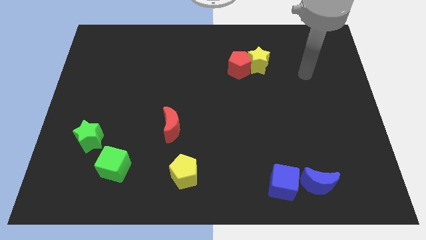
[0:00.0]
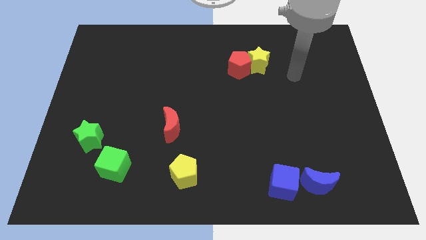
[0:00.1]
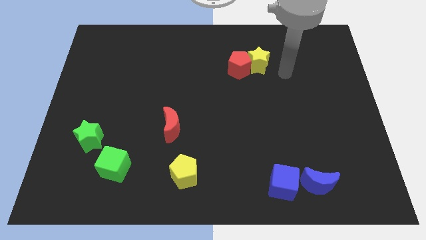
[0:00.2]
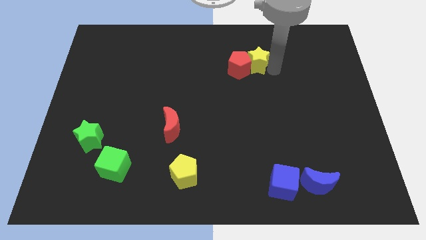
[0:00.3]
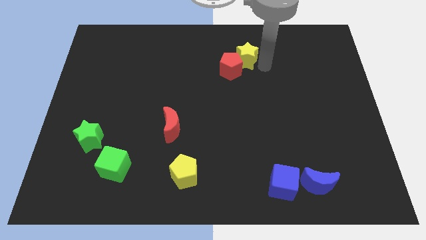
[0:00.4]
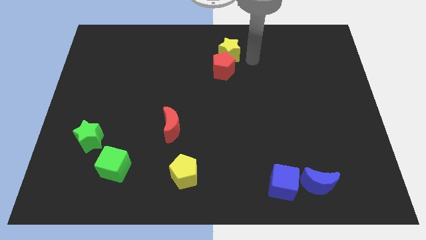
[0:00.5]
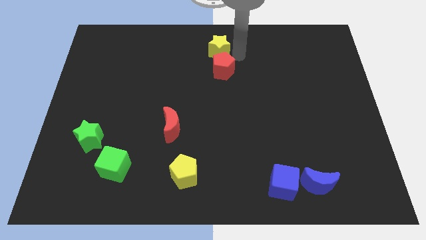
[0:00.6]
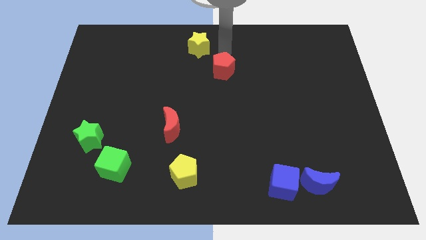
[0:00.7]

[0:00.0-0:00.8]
pull the red pentagon apart from the yellow star

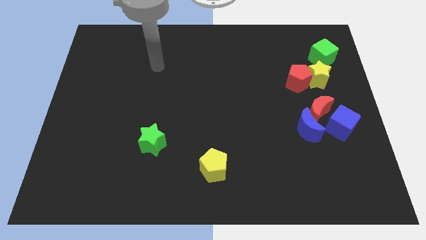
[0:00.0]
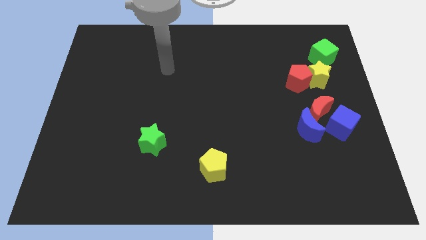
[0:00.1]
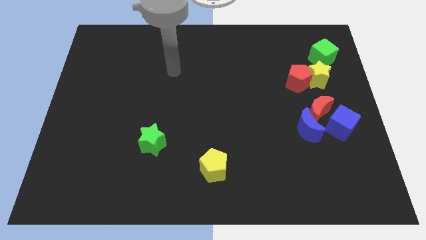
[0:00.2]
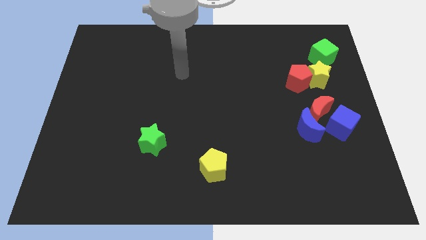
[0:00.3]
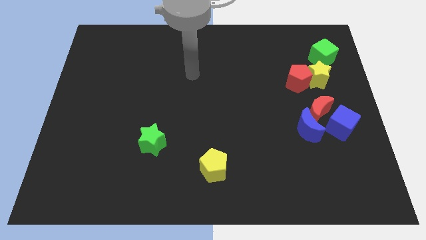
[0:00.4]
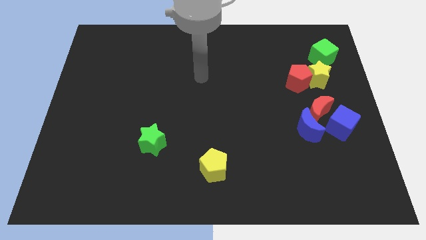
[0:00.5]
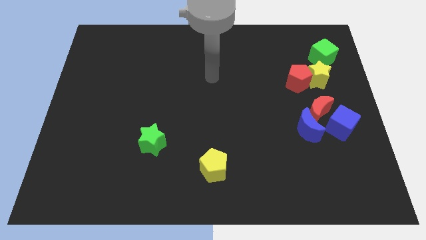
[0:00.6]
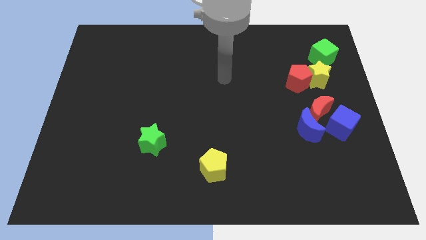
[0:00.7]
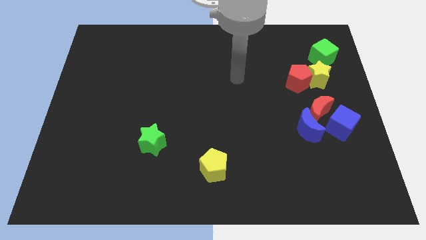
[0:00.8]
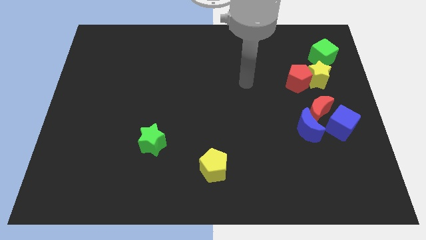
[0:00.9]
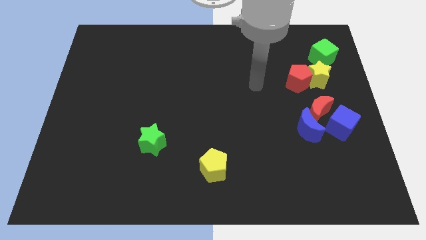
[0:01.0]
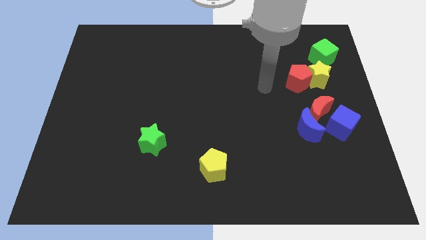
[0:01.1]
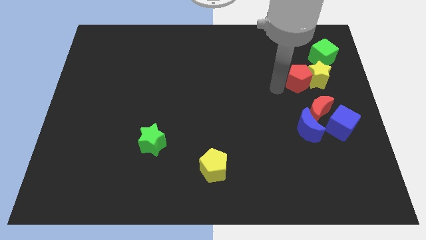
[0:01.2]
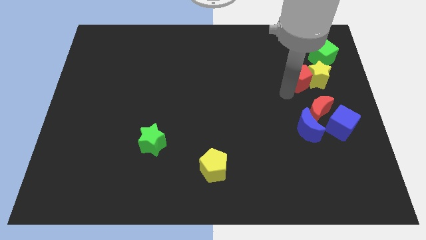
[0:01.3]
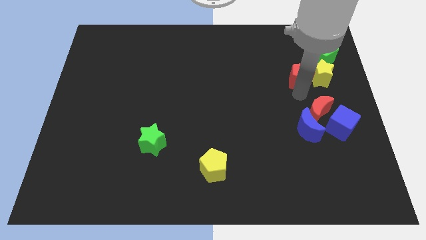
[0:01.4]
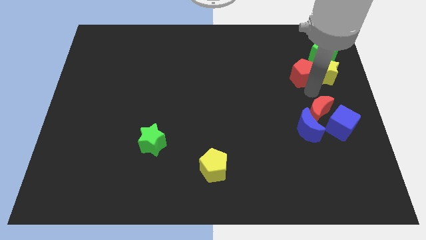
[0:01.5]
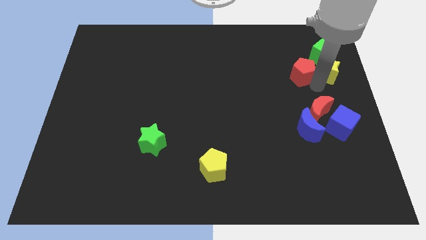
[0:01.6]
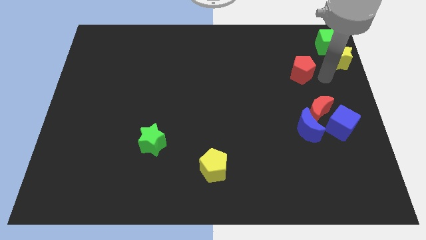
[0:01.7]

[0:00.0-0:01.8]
separate the red pentagon from the yellow star

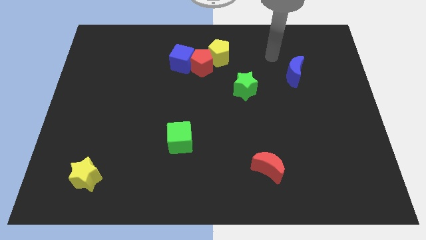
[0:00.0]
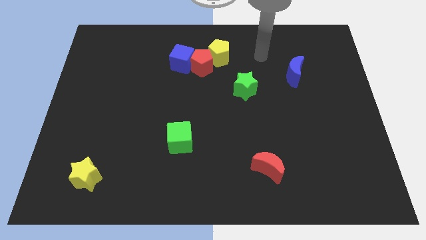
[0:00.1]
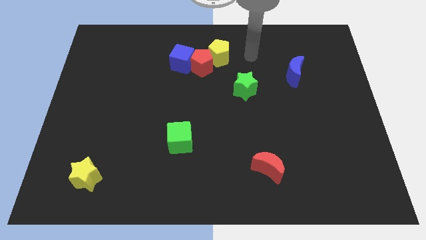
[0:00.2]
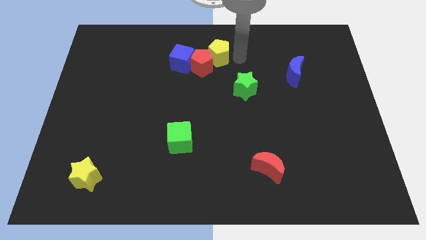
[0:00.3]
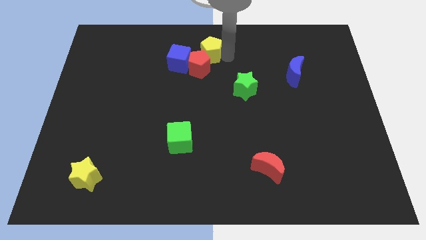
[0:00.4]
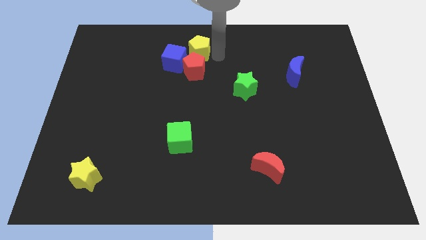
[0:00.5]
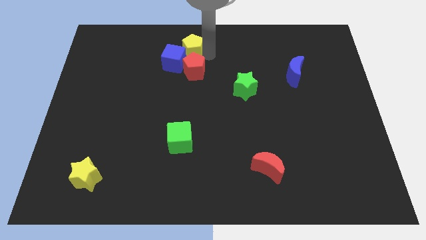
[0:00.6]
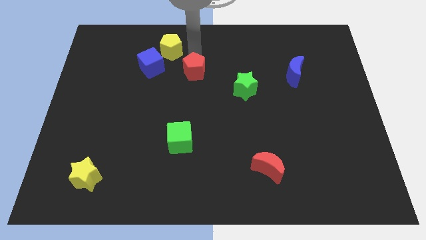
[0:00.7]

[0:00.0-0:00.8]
pull the red pentagon apart from the blue cube and yellow pentagon

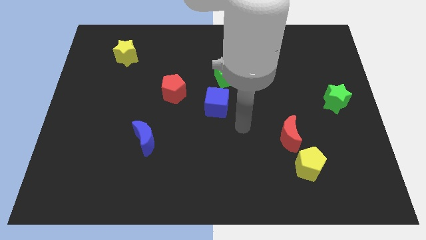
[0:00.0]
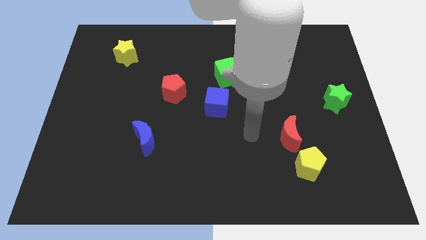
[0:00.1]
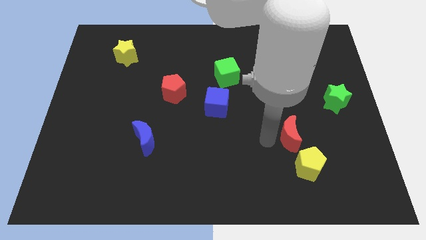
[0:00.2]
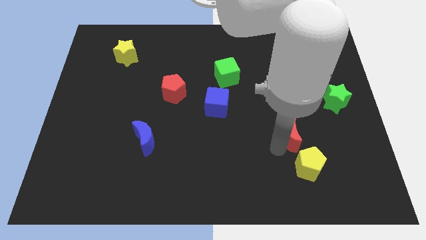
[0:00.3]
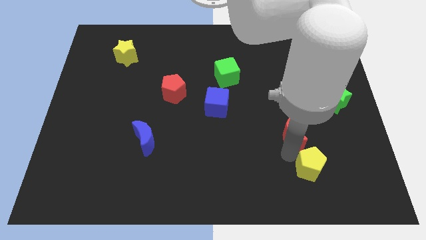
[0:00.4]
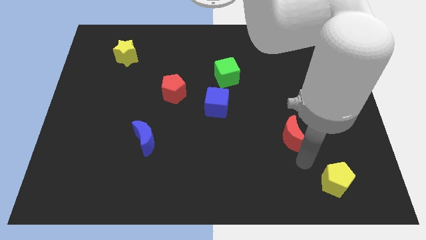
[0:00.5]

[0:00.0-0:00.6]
separate the red moon from the yellow pentagon

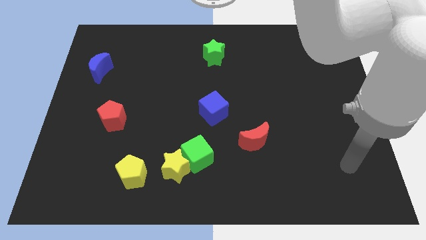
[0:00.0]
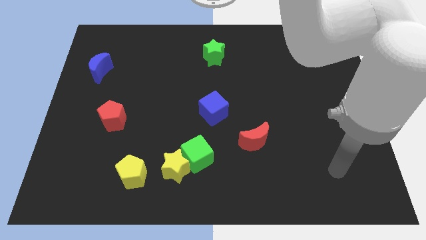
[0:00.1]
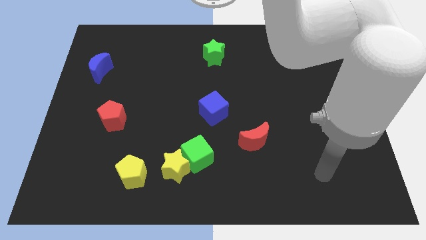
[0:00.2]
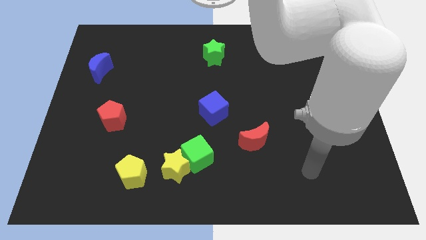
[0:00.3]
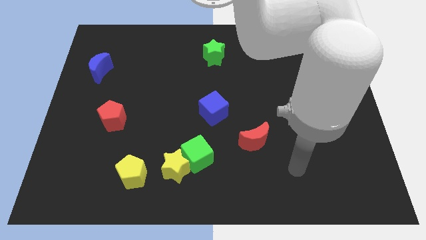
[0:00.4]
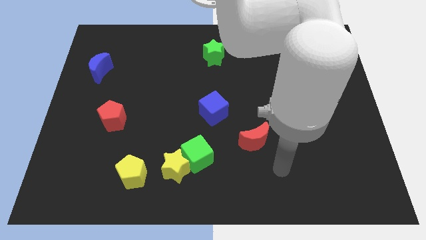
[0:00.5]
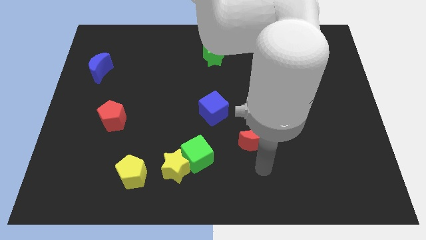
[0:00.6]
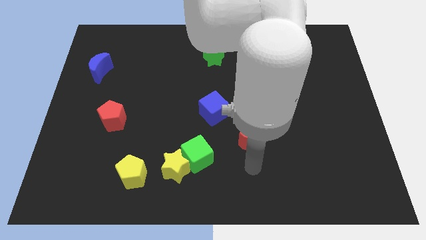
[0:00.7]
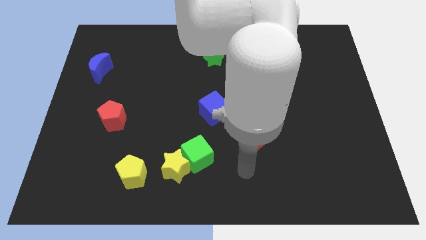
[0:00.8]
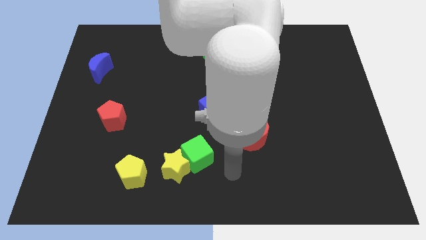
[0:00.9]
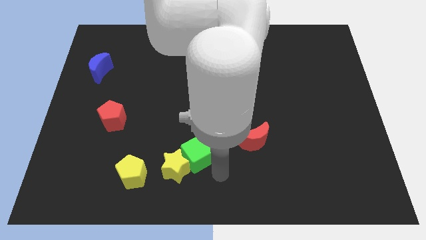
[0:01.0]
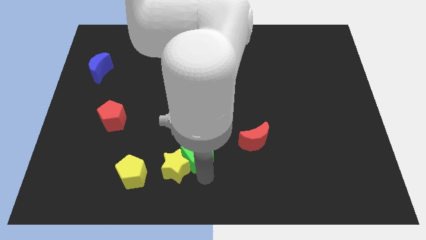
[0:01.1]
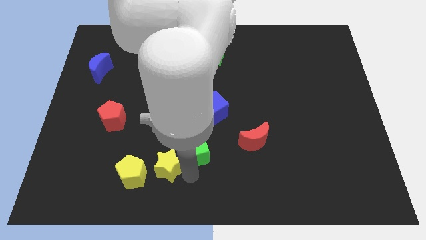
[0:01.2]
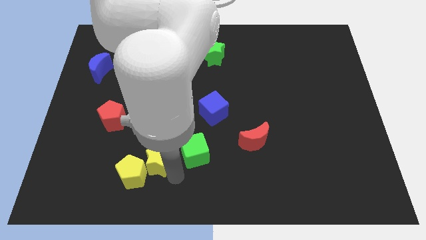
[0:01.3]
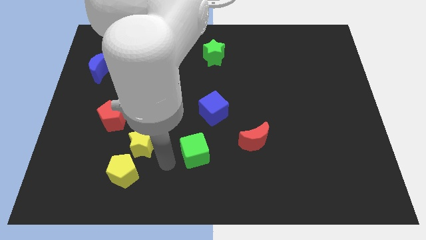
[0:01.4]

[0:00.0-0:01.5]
move the green cube away from the yellow star

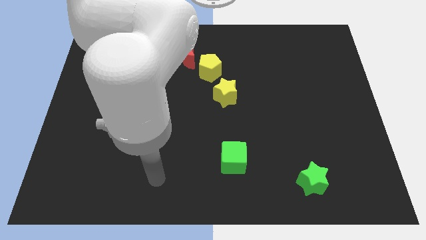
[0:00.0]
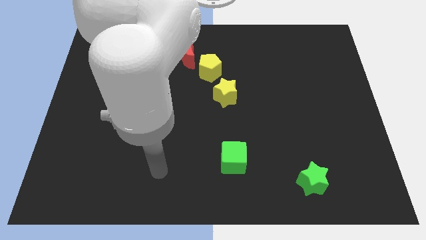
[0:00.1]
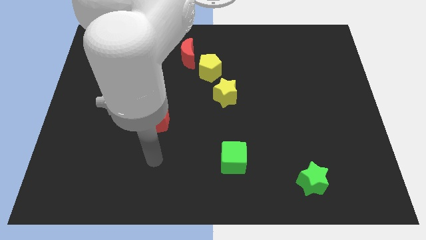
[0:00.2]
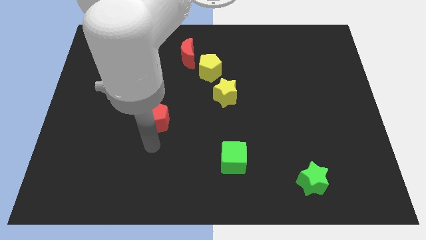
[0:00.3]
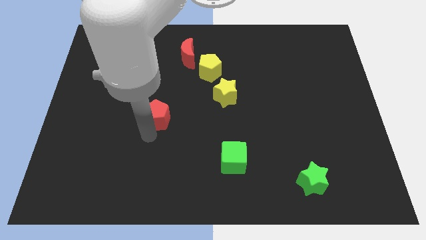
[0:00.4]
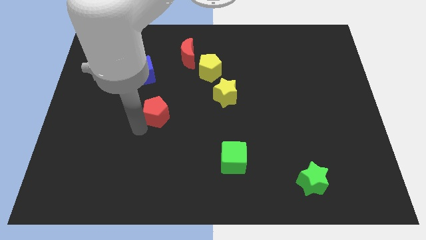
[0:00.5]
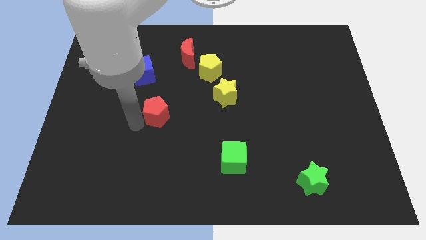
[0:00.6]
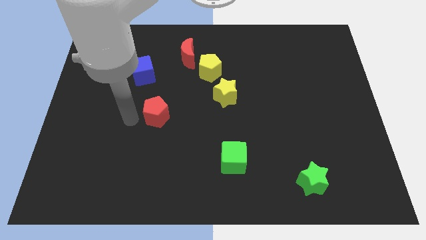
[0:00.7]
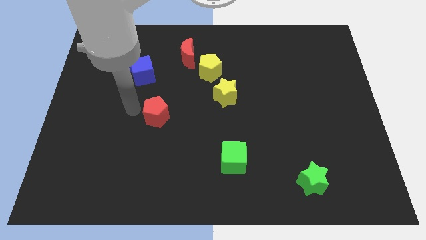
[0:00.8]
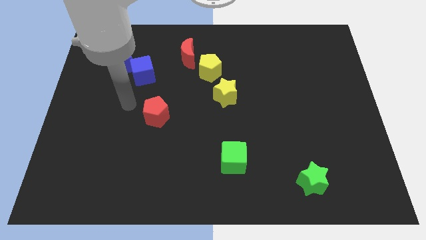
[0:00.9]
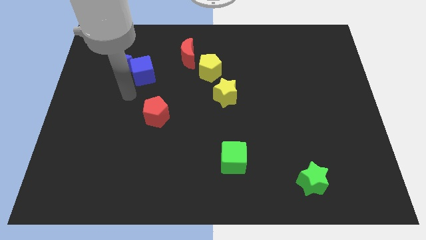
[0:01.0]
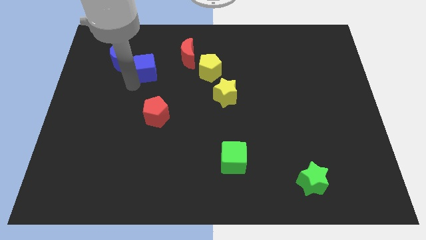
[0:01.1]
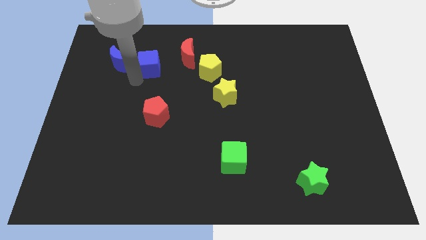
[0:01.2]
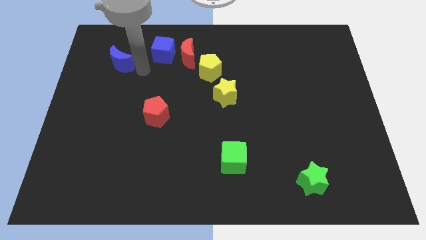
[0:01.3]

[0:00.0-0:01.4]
separate the blue moon from the blue cube

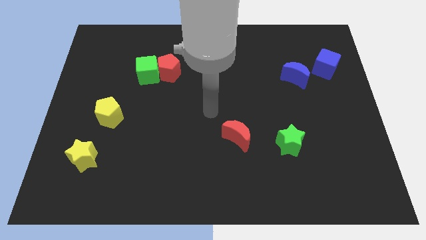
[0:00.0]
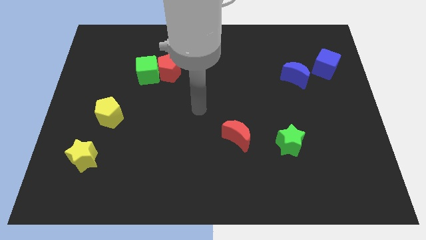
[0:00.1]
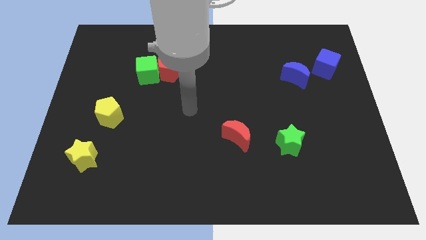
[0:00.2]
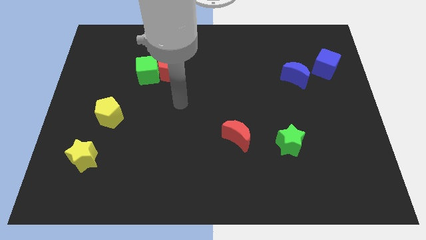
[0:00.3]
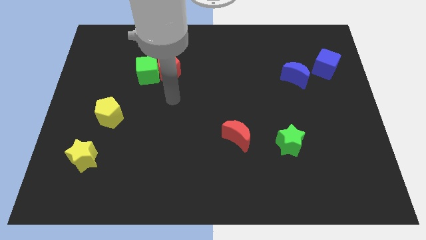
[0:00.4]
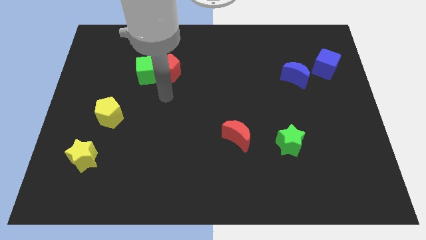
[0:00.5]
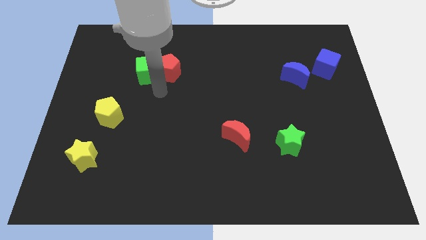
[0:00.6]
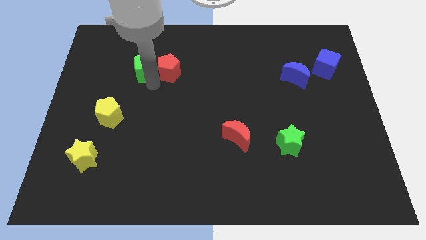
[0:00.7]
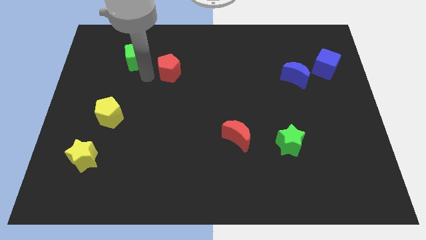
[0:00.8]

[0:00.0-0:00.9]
pull the red pentagon apart from the green cube

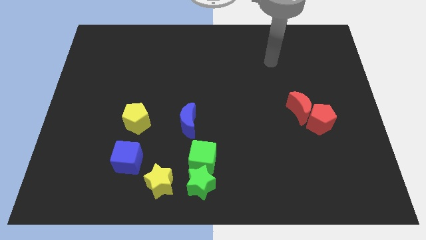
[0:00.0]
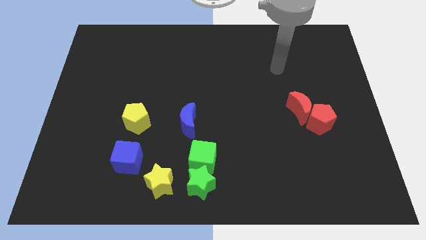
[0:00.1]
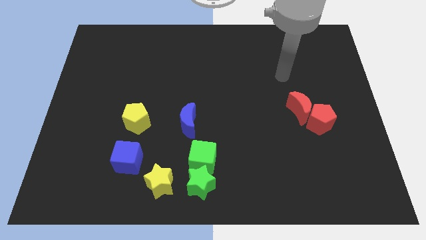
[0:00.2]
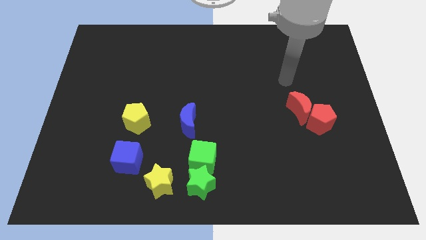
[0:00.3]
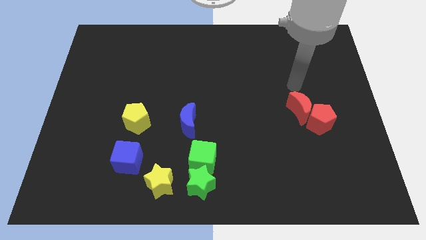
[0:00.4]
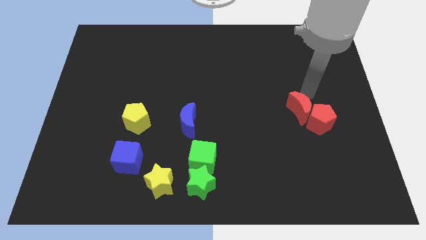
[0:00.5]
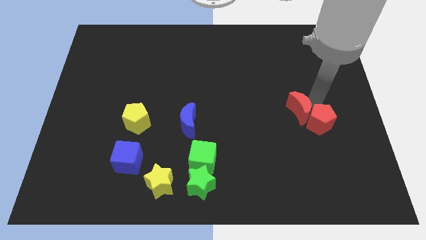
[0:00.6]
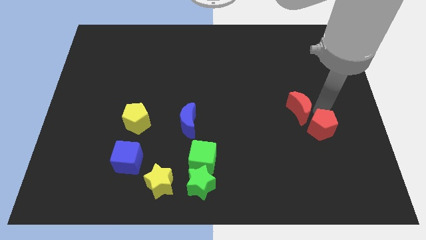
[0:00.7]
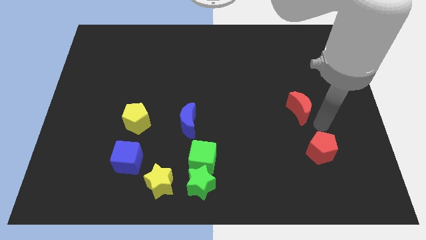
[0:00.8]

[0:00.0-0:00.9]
separate the red moon from the red pentagon

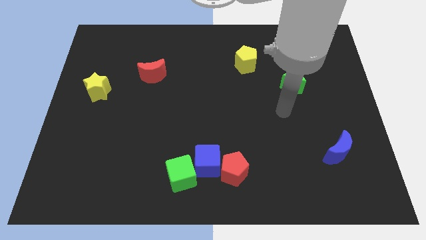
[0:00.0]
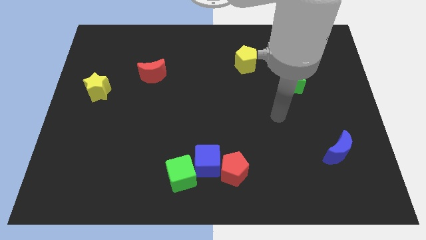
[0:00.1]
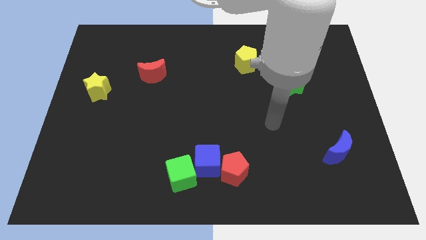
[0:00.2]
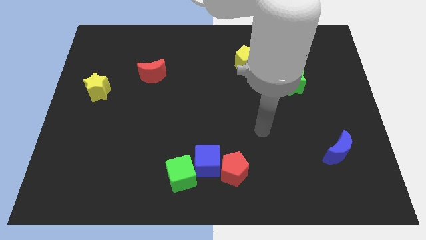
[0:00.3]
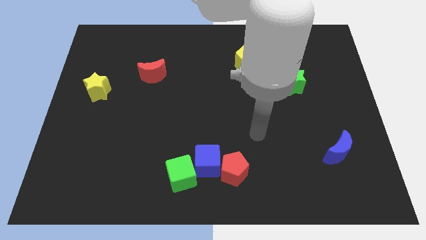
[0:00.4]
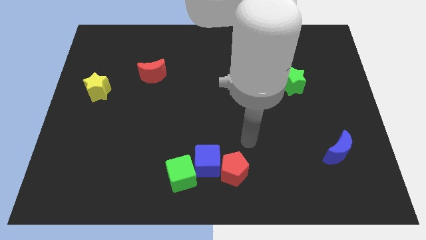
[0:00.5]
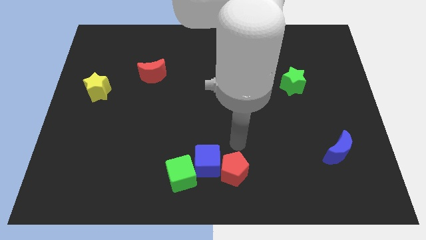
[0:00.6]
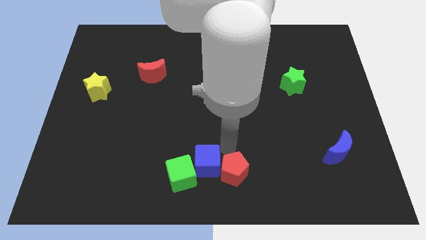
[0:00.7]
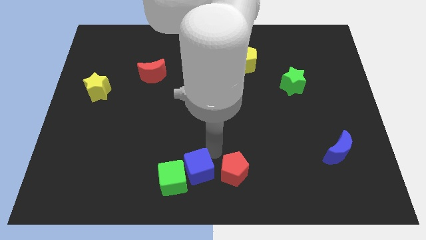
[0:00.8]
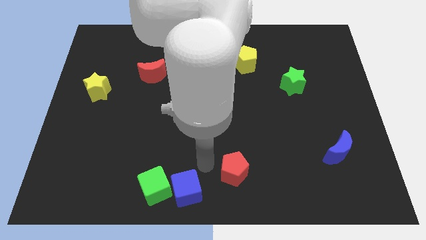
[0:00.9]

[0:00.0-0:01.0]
separate the red pentagon from the blue cube
